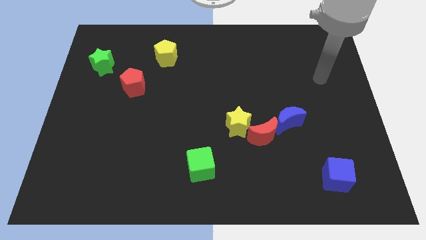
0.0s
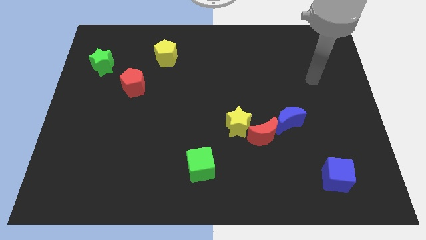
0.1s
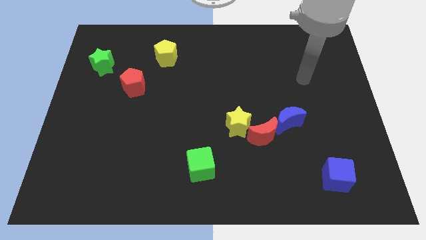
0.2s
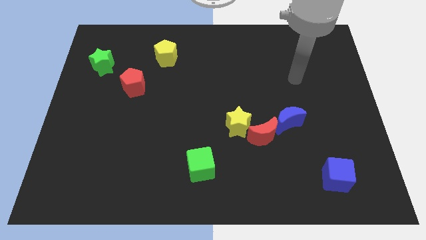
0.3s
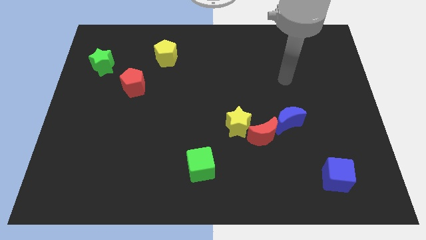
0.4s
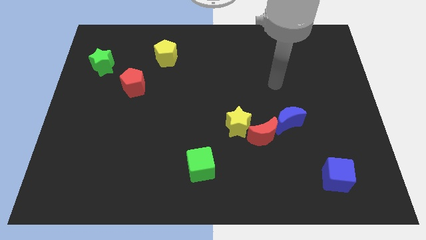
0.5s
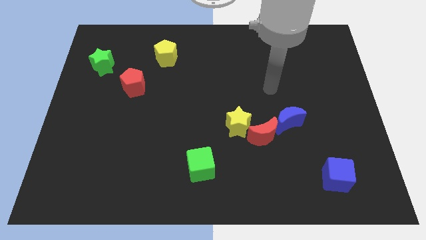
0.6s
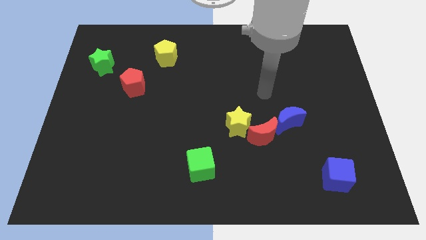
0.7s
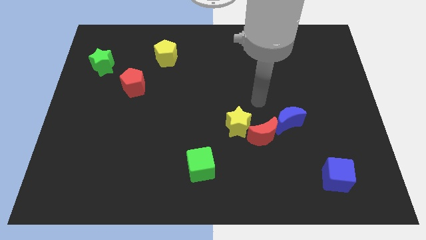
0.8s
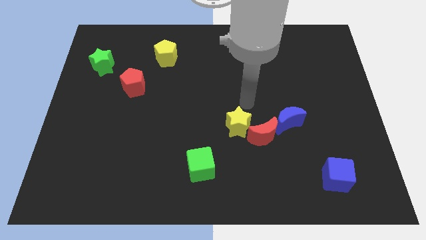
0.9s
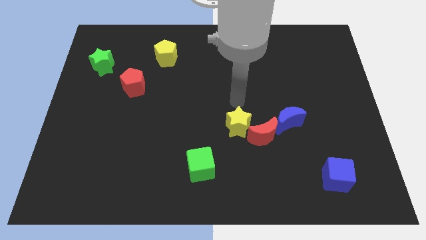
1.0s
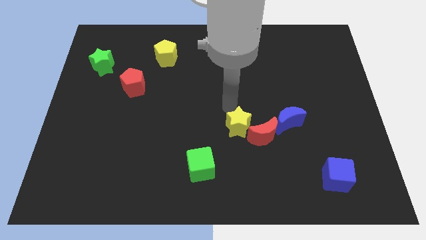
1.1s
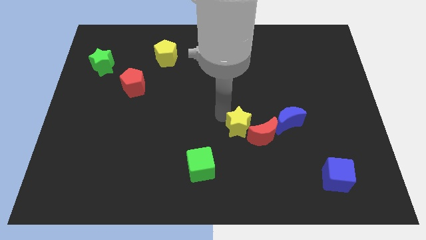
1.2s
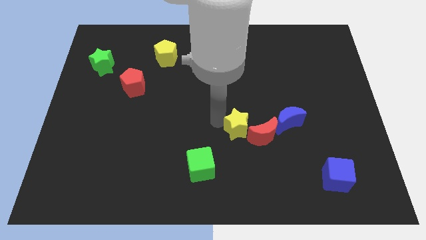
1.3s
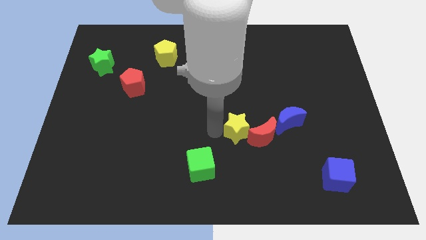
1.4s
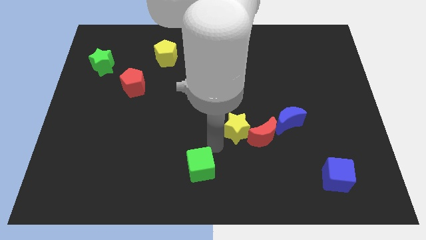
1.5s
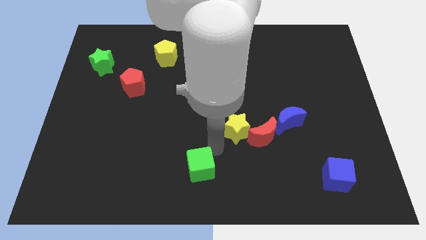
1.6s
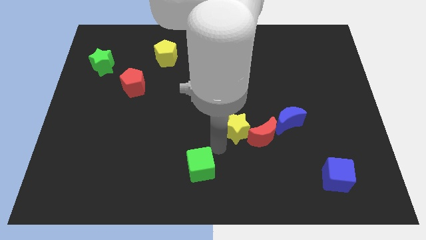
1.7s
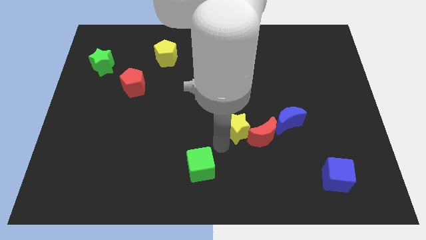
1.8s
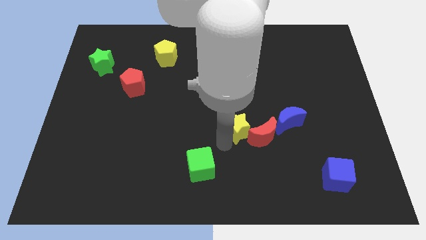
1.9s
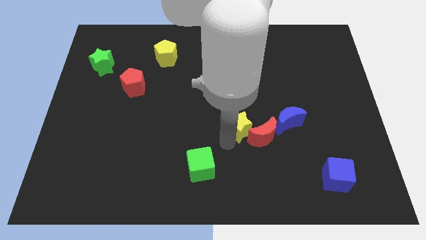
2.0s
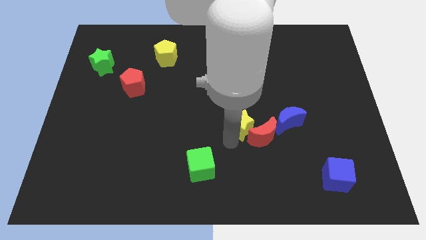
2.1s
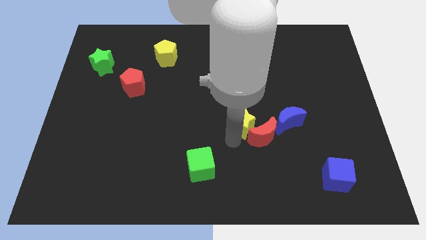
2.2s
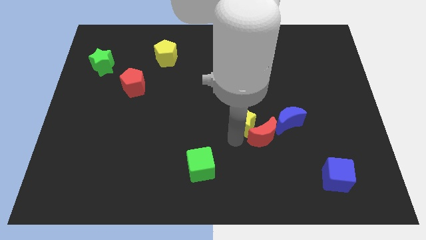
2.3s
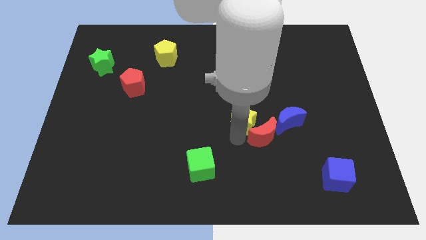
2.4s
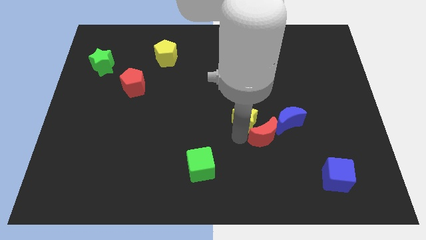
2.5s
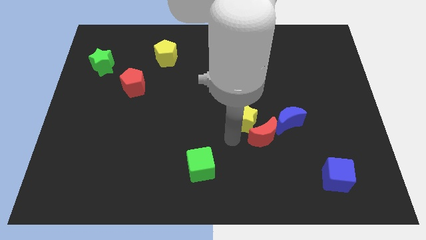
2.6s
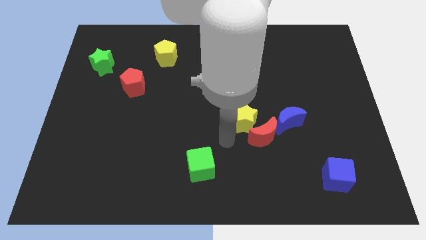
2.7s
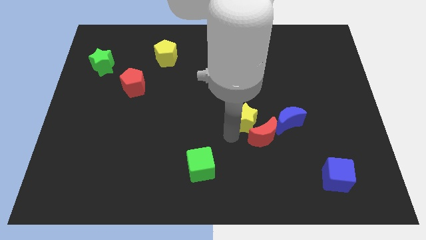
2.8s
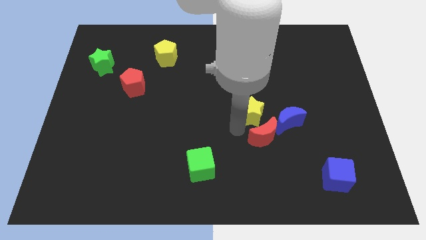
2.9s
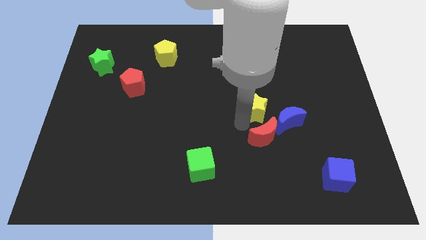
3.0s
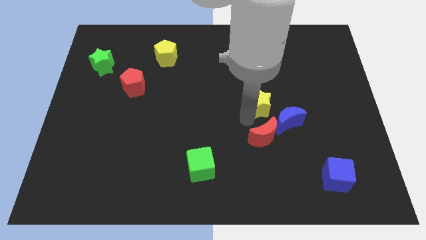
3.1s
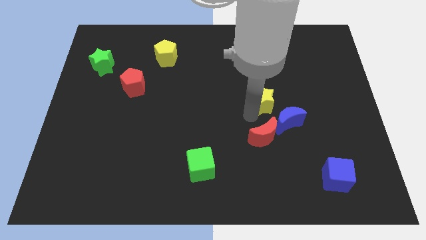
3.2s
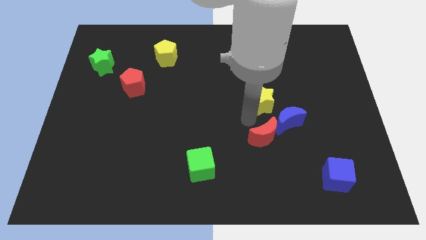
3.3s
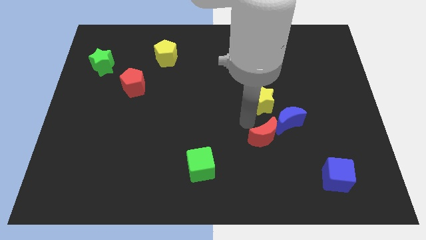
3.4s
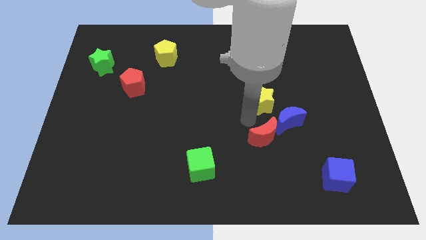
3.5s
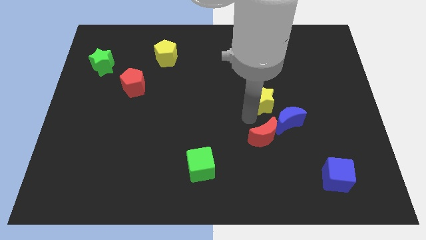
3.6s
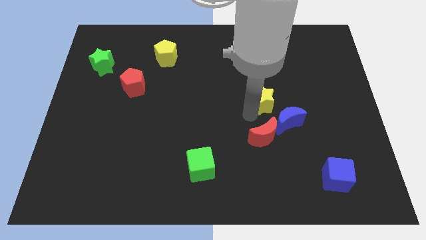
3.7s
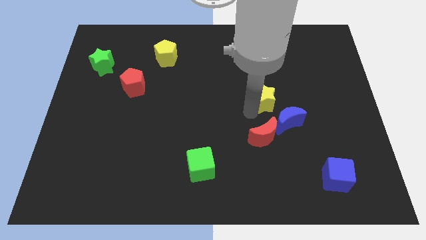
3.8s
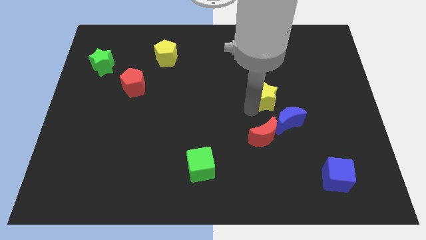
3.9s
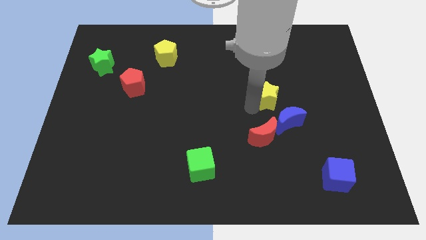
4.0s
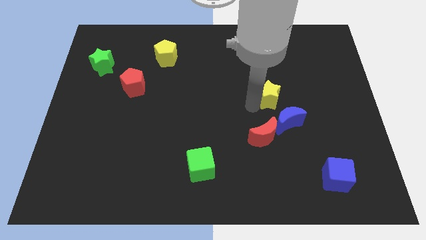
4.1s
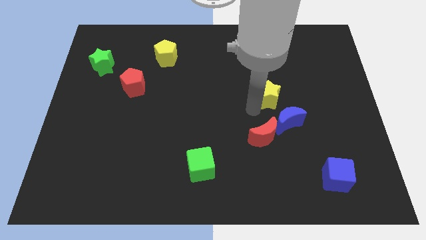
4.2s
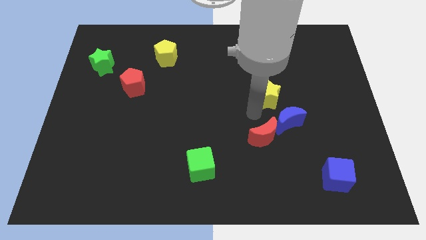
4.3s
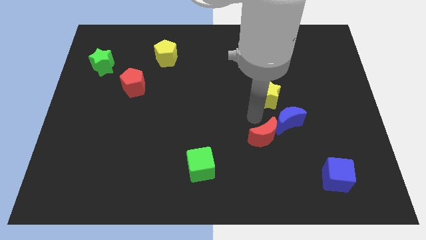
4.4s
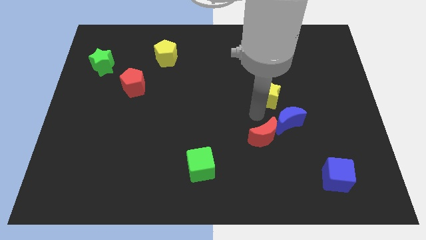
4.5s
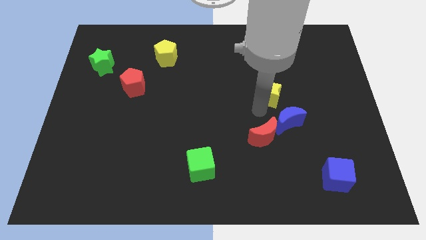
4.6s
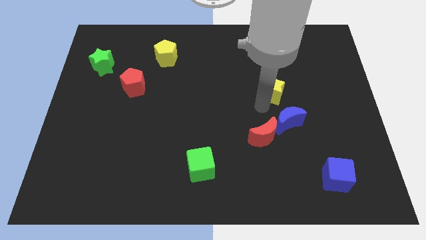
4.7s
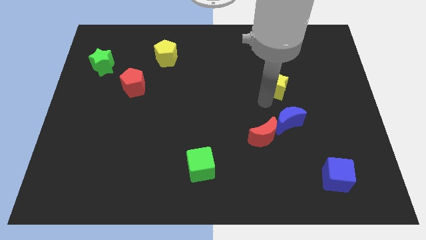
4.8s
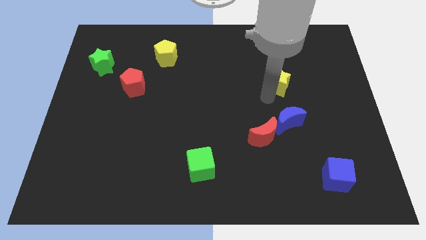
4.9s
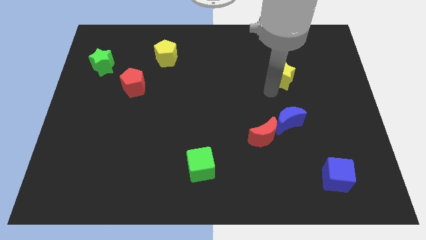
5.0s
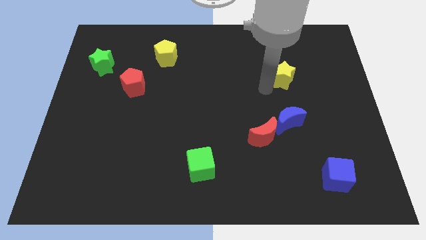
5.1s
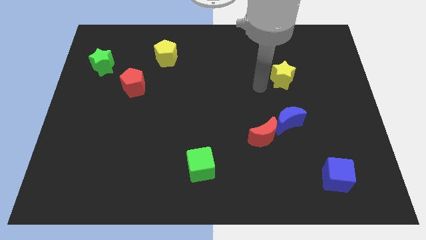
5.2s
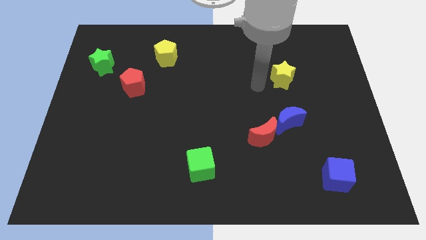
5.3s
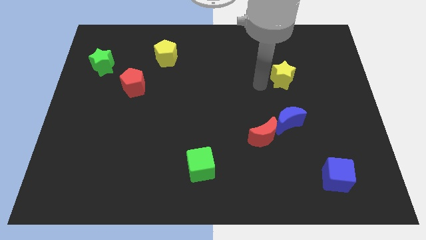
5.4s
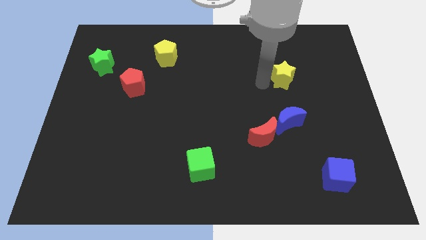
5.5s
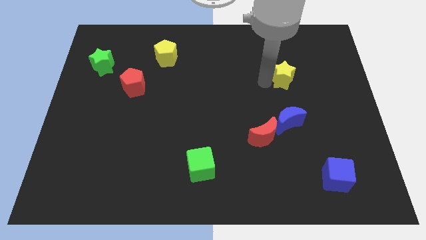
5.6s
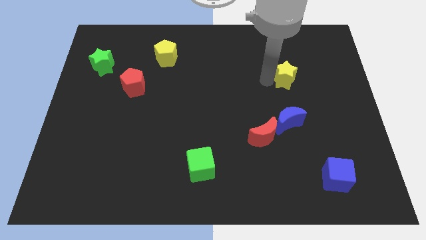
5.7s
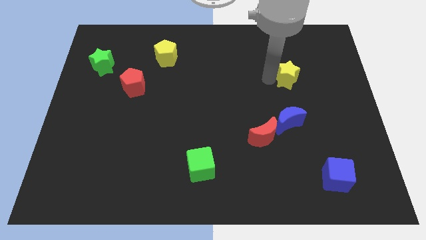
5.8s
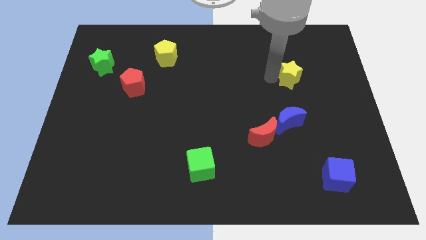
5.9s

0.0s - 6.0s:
slide the yellow star diagonally up and right

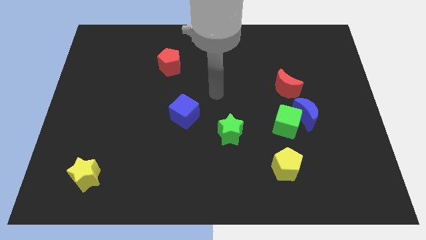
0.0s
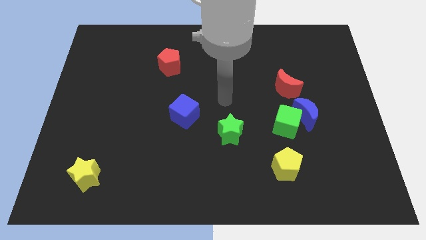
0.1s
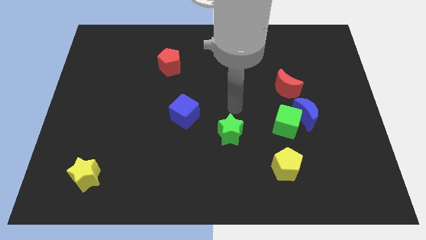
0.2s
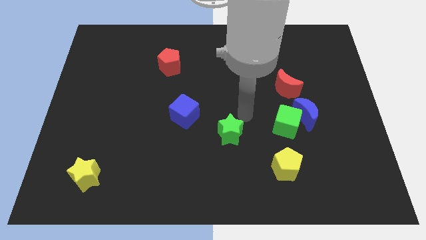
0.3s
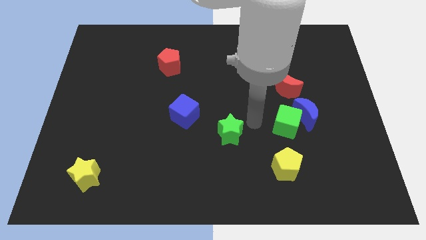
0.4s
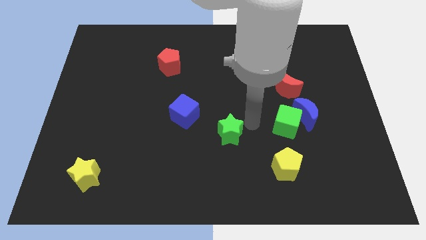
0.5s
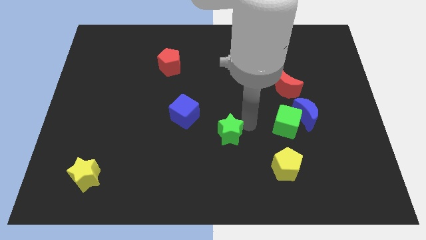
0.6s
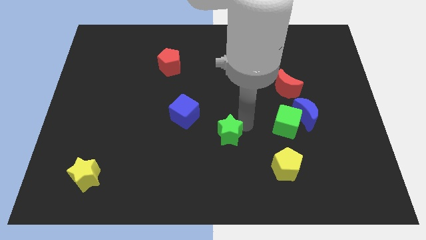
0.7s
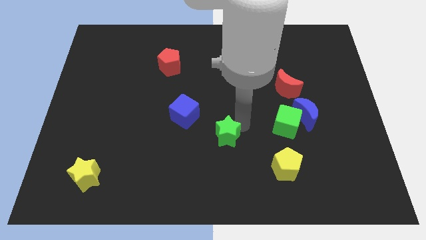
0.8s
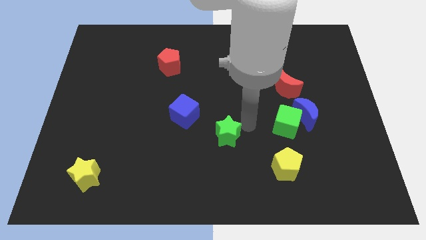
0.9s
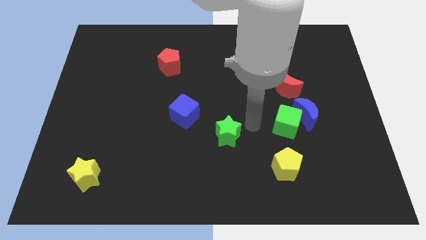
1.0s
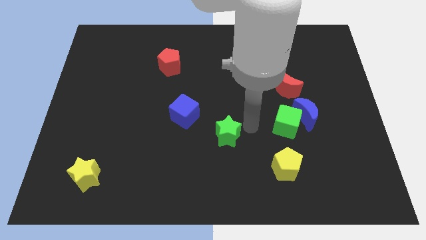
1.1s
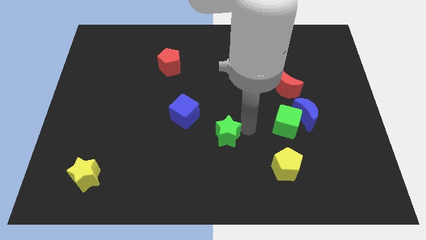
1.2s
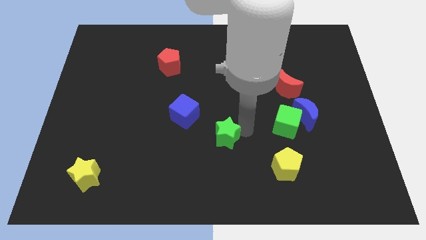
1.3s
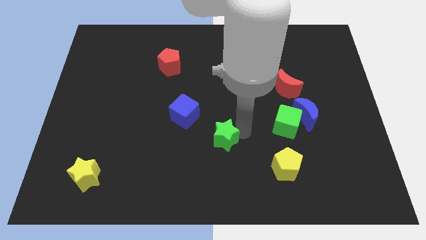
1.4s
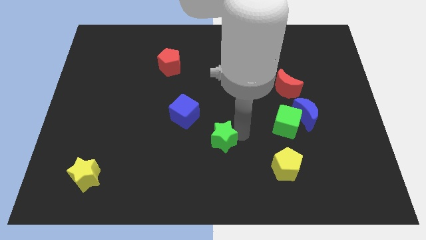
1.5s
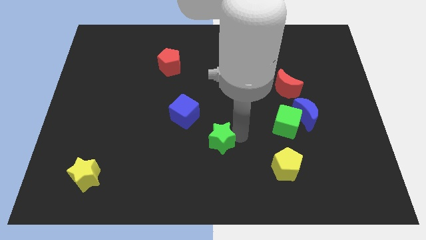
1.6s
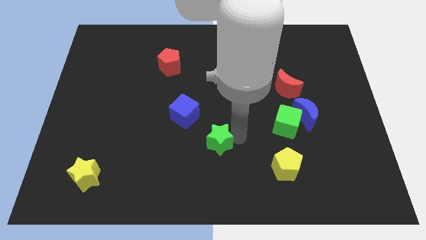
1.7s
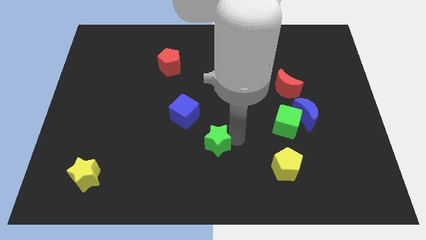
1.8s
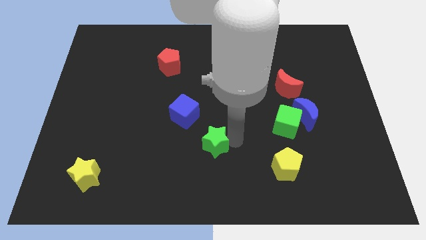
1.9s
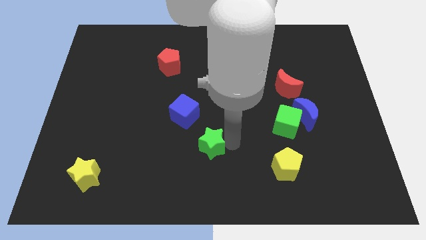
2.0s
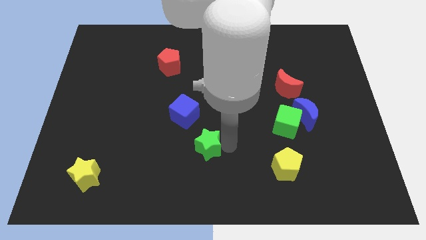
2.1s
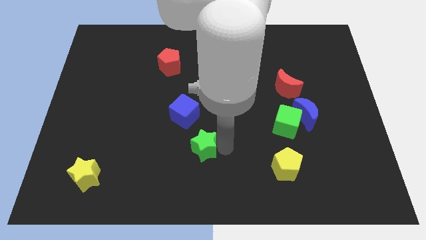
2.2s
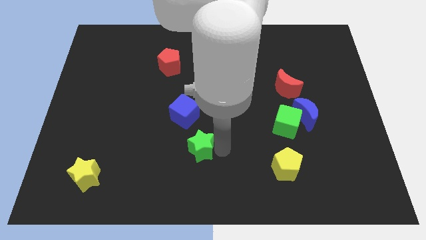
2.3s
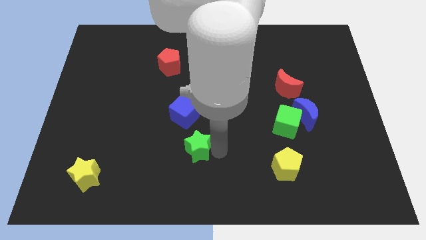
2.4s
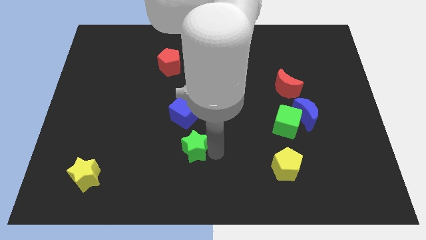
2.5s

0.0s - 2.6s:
slightly push the green star left
